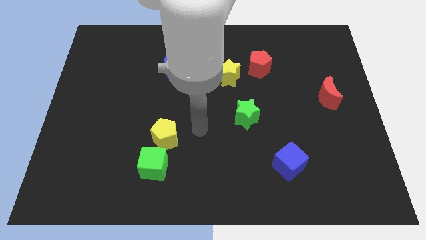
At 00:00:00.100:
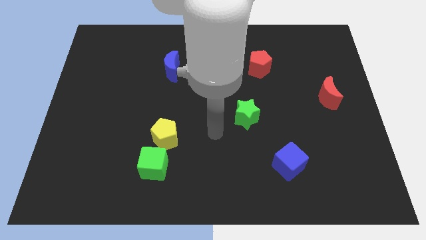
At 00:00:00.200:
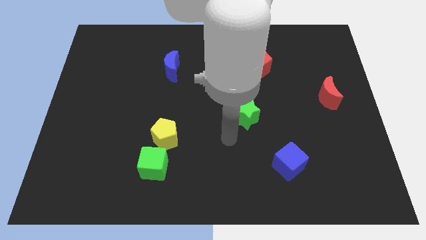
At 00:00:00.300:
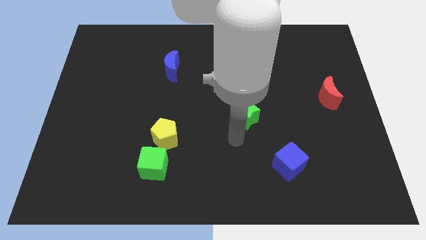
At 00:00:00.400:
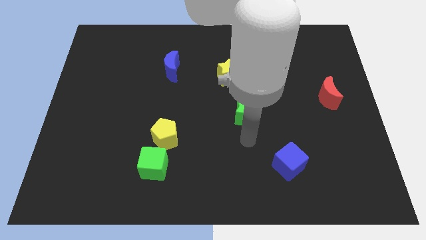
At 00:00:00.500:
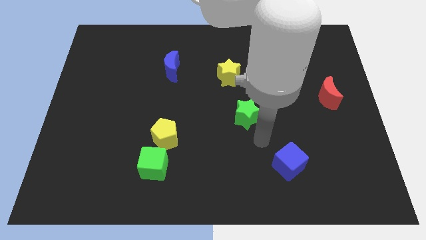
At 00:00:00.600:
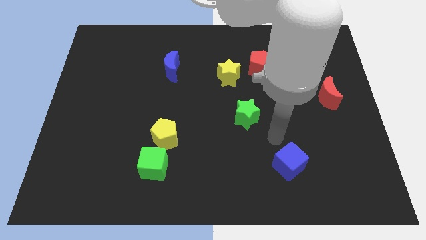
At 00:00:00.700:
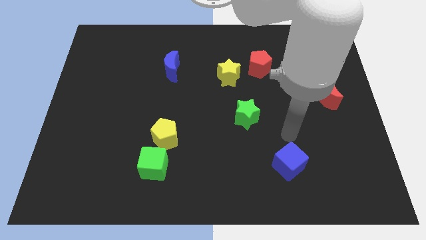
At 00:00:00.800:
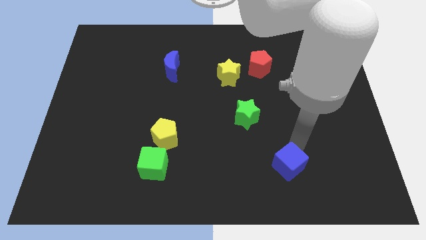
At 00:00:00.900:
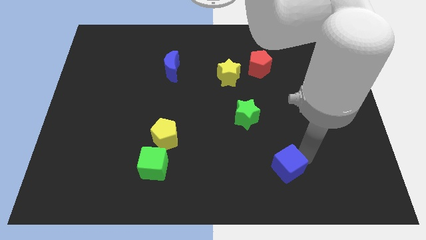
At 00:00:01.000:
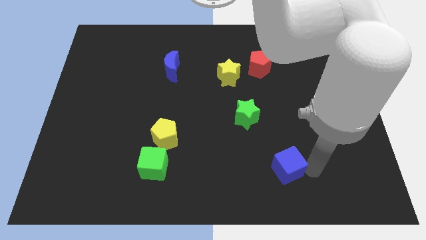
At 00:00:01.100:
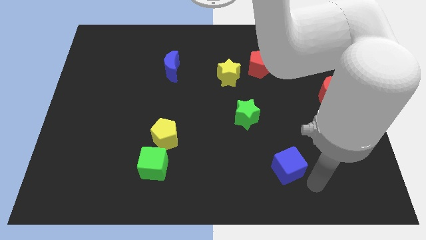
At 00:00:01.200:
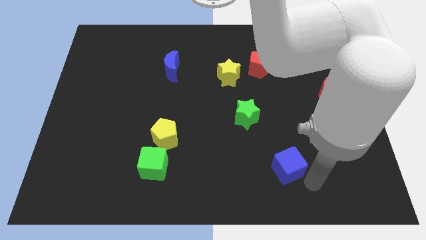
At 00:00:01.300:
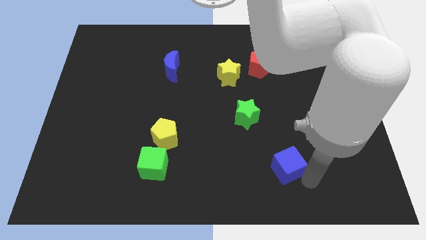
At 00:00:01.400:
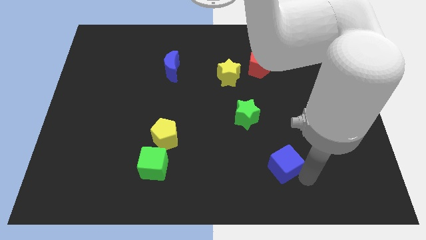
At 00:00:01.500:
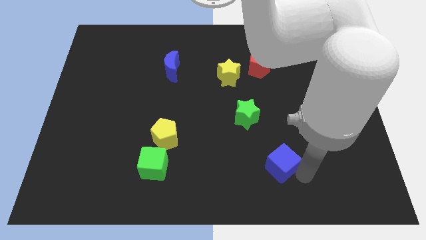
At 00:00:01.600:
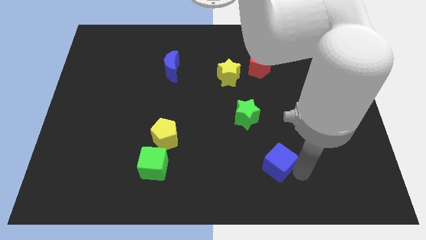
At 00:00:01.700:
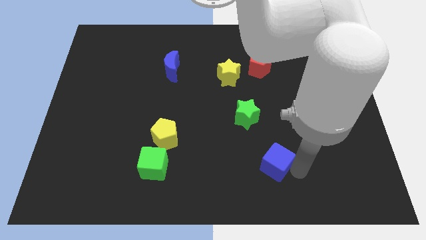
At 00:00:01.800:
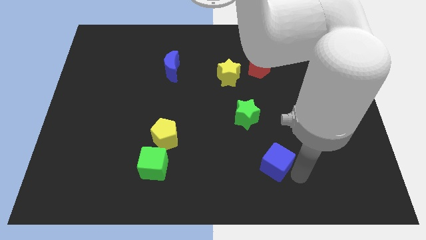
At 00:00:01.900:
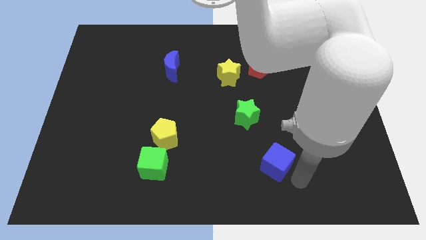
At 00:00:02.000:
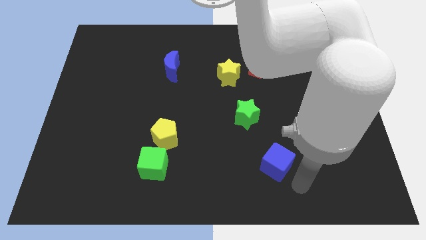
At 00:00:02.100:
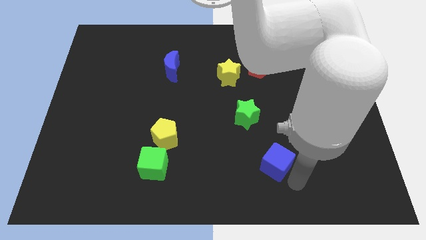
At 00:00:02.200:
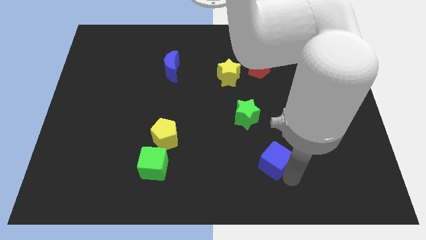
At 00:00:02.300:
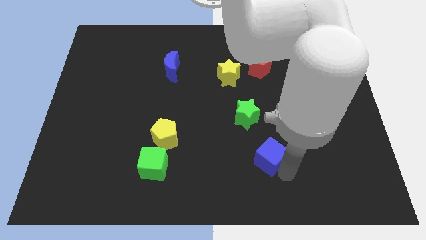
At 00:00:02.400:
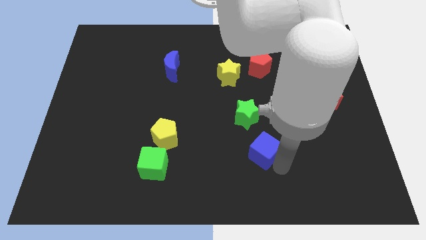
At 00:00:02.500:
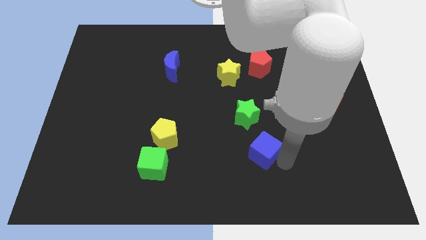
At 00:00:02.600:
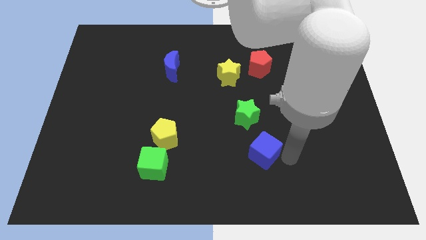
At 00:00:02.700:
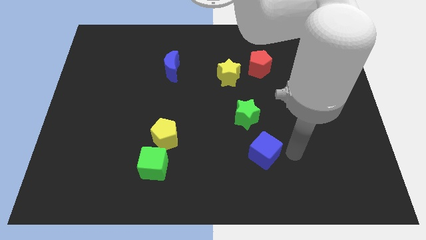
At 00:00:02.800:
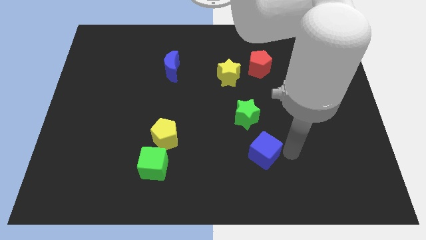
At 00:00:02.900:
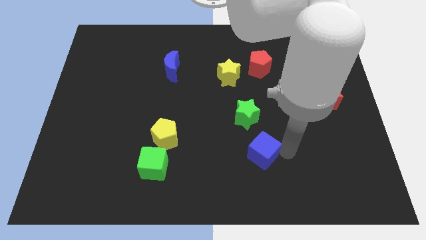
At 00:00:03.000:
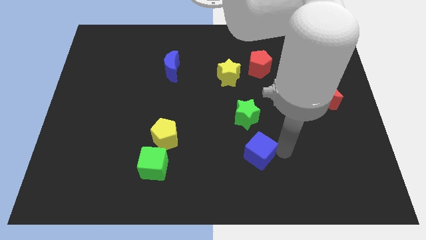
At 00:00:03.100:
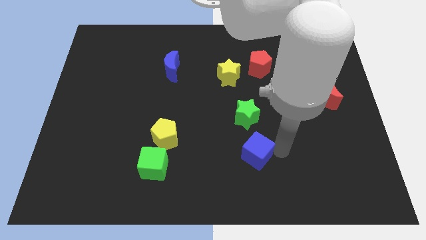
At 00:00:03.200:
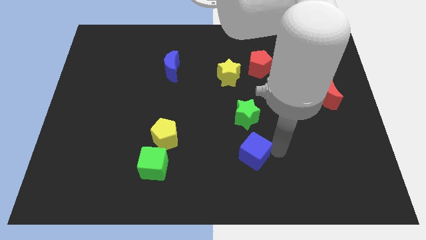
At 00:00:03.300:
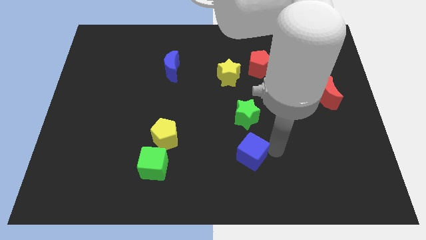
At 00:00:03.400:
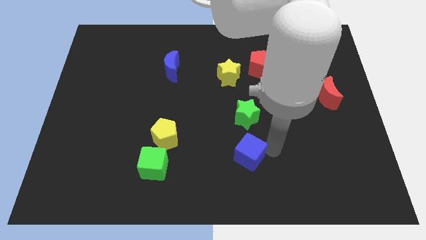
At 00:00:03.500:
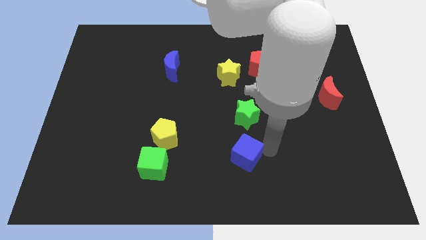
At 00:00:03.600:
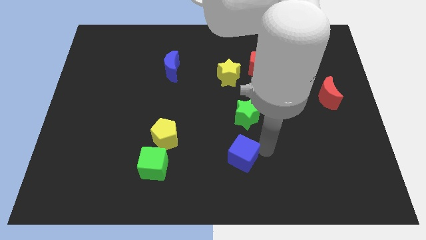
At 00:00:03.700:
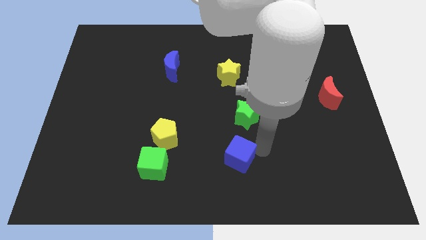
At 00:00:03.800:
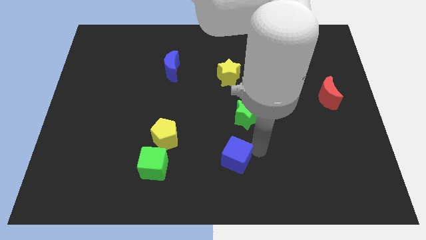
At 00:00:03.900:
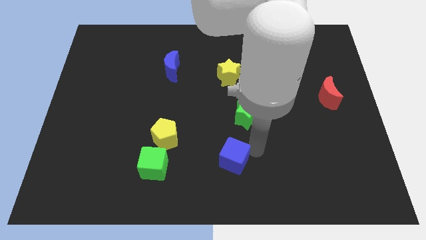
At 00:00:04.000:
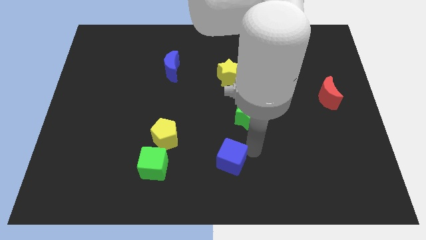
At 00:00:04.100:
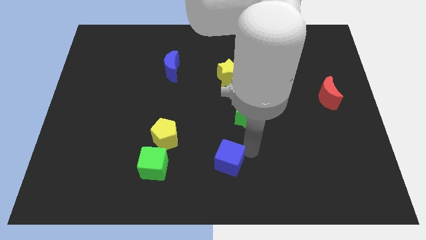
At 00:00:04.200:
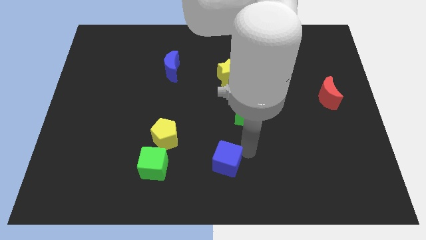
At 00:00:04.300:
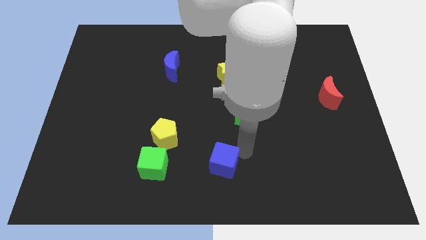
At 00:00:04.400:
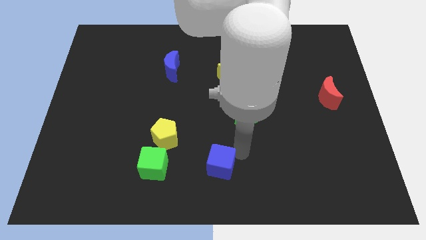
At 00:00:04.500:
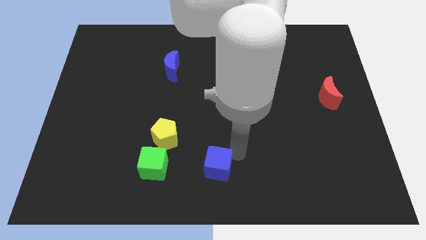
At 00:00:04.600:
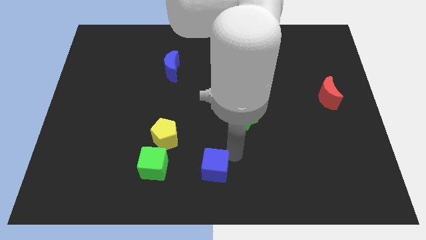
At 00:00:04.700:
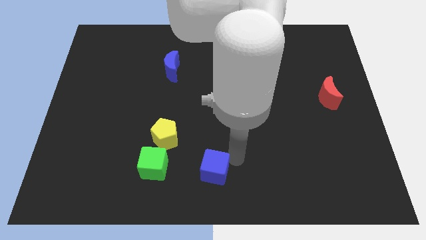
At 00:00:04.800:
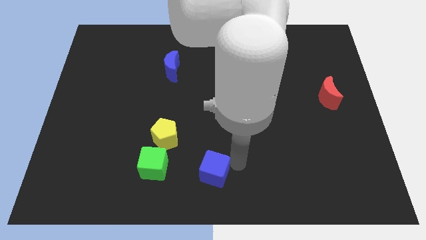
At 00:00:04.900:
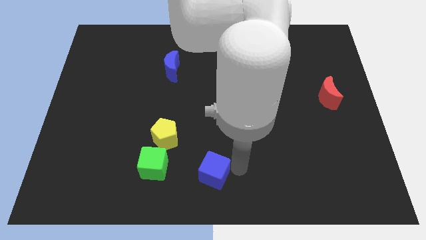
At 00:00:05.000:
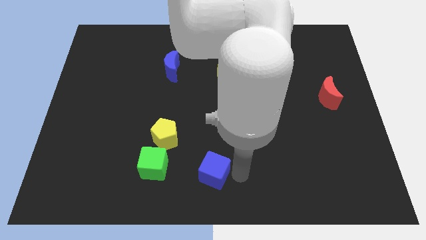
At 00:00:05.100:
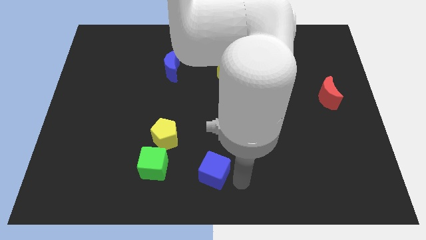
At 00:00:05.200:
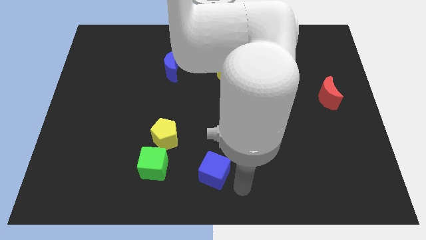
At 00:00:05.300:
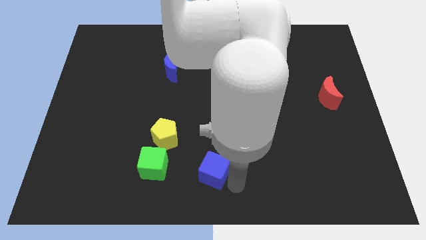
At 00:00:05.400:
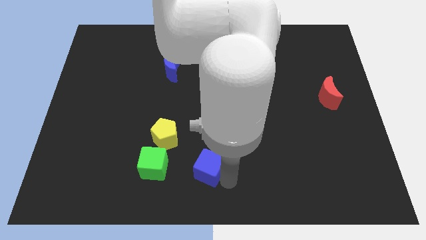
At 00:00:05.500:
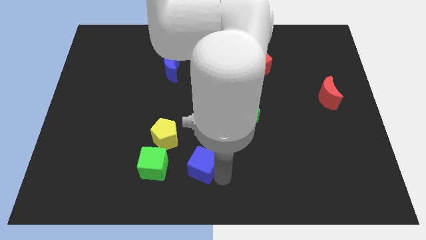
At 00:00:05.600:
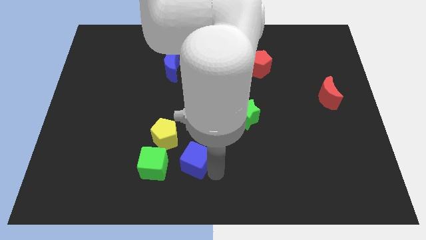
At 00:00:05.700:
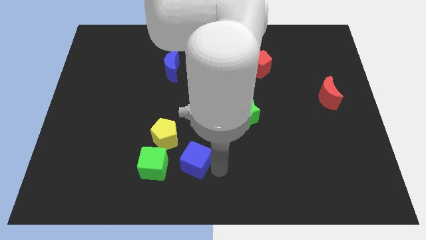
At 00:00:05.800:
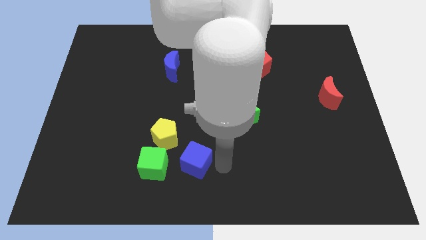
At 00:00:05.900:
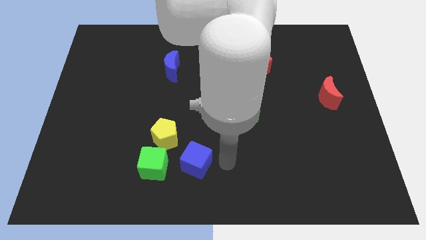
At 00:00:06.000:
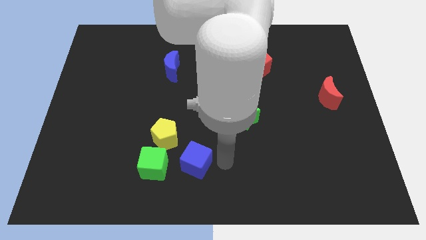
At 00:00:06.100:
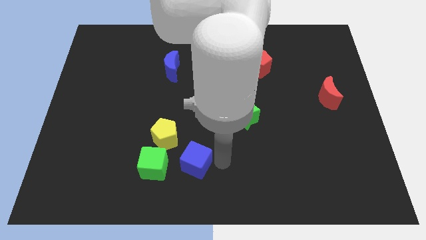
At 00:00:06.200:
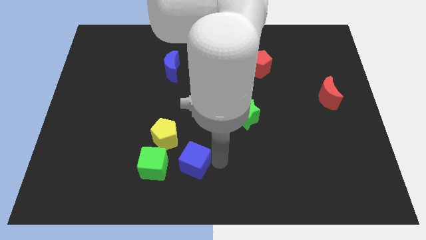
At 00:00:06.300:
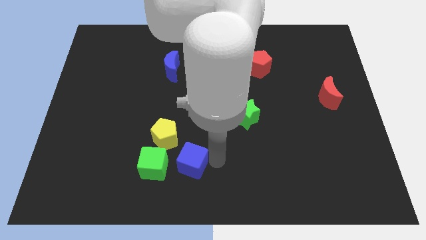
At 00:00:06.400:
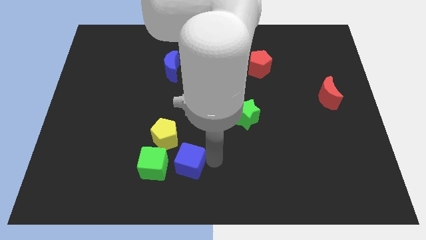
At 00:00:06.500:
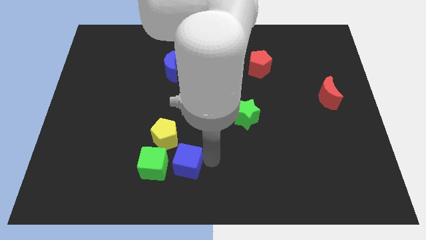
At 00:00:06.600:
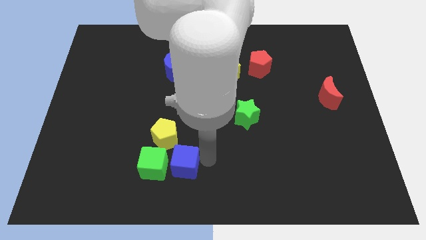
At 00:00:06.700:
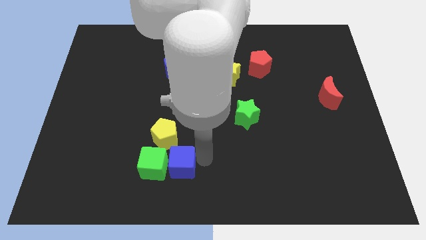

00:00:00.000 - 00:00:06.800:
push the blue cube to the green cube
